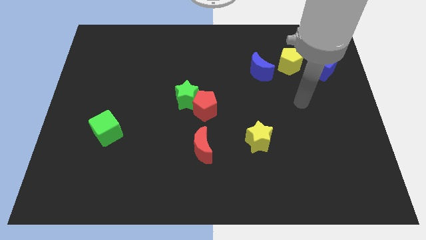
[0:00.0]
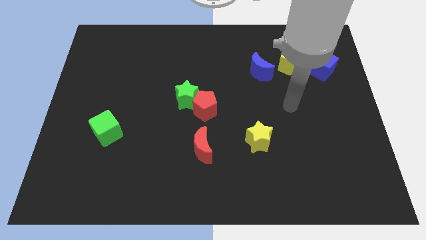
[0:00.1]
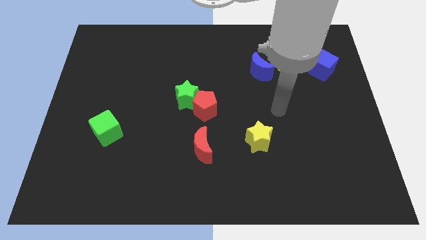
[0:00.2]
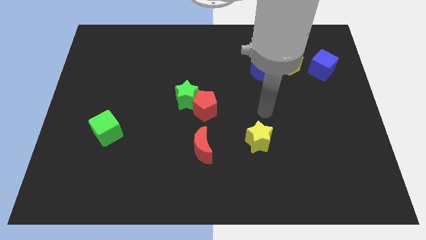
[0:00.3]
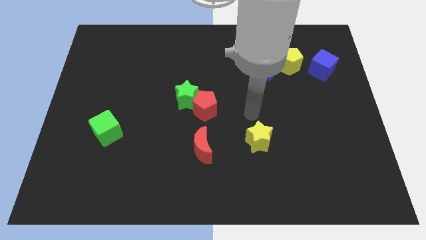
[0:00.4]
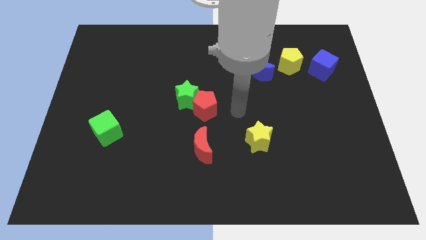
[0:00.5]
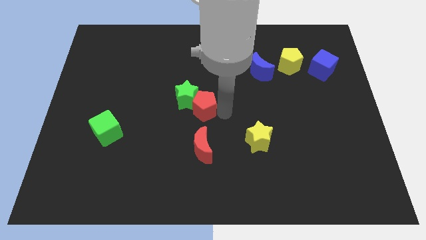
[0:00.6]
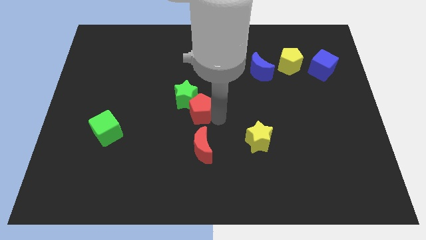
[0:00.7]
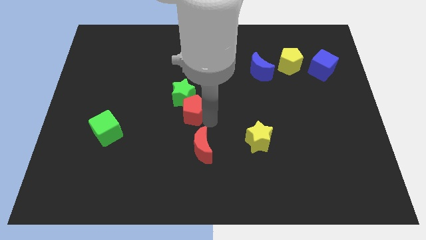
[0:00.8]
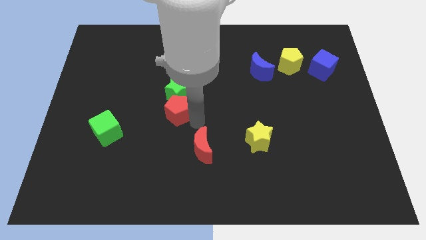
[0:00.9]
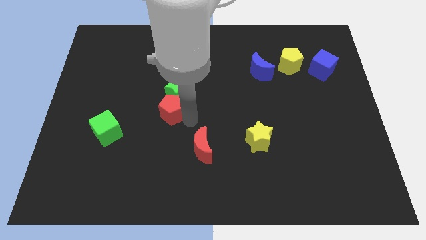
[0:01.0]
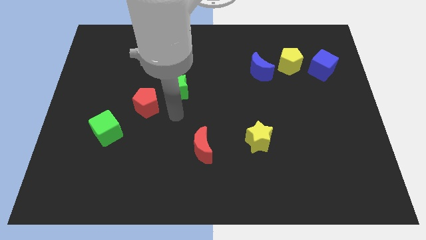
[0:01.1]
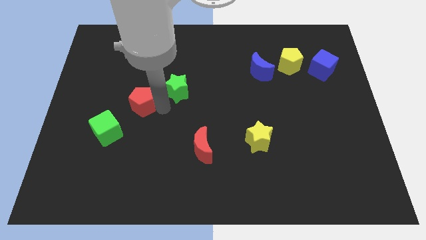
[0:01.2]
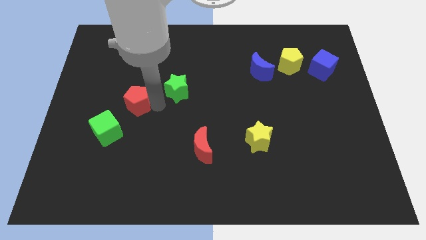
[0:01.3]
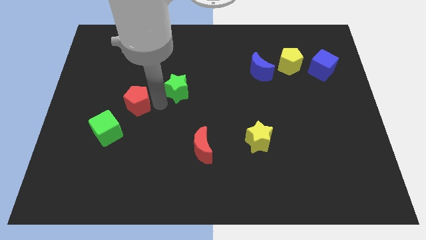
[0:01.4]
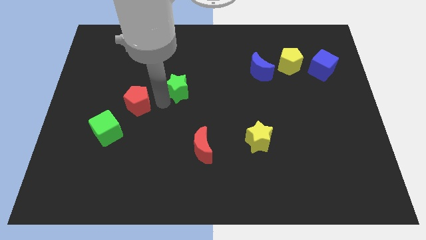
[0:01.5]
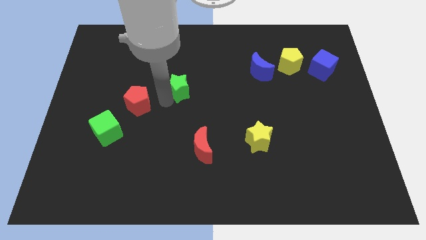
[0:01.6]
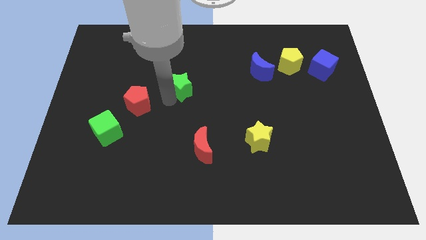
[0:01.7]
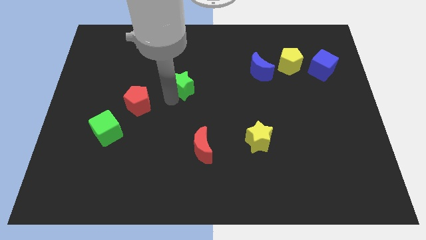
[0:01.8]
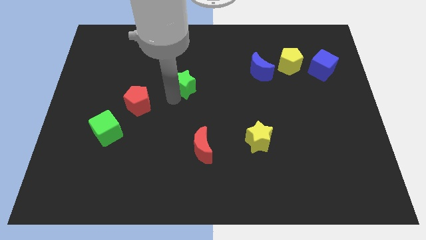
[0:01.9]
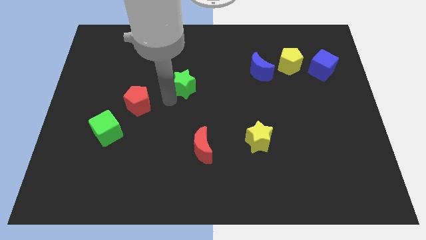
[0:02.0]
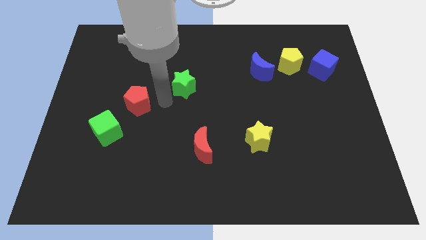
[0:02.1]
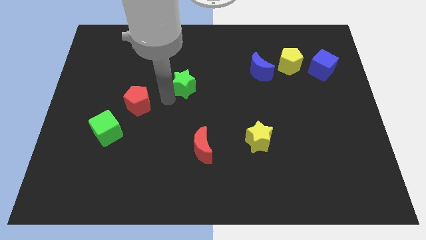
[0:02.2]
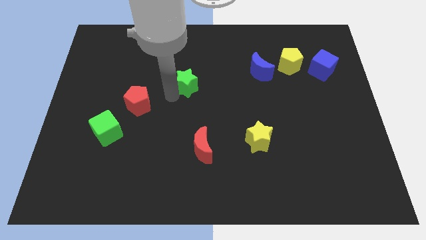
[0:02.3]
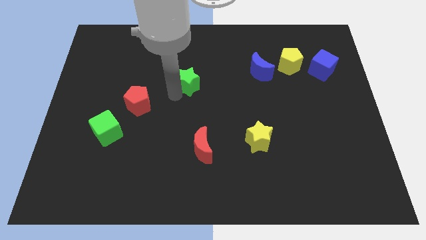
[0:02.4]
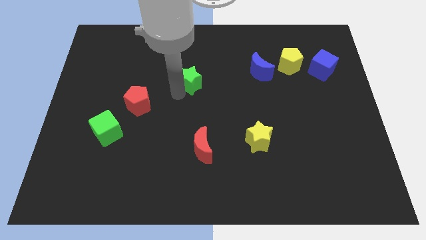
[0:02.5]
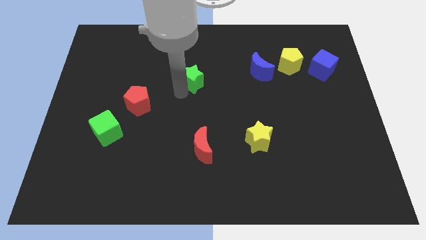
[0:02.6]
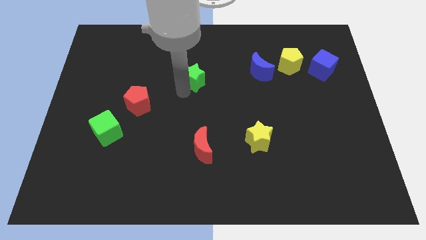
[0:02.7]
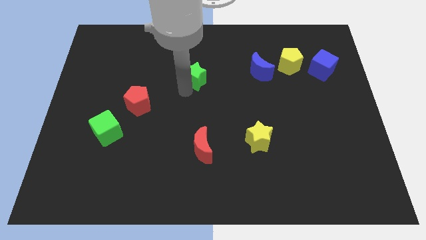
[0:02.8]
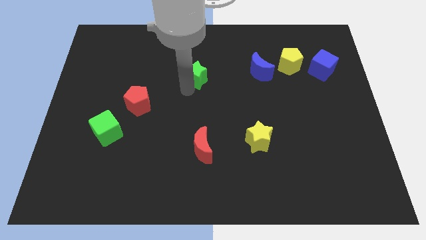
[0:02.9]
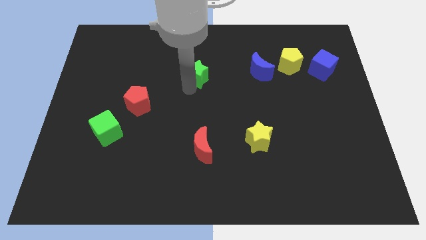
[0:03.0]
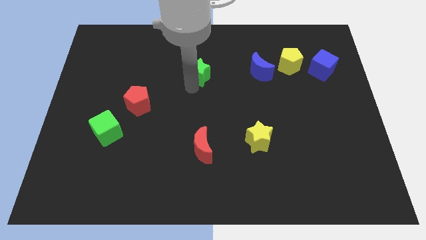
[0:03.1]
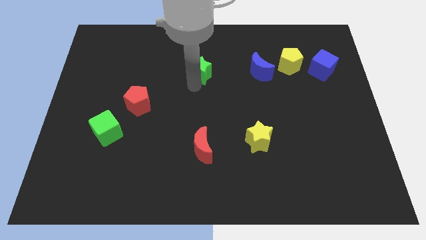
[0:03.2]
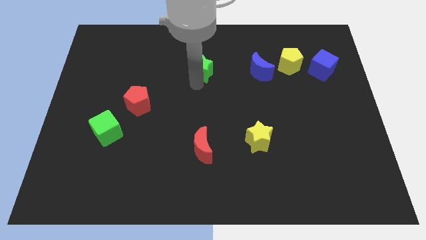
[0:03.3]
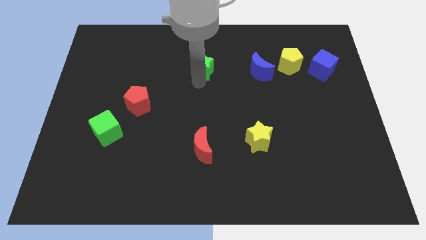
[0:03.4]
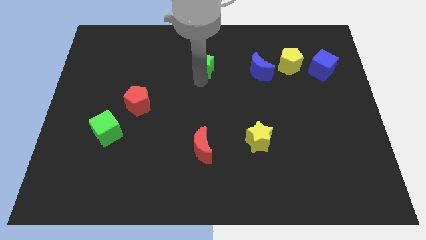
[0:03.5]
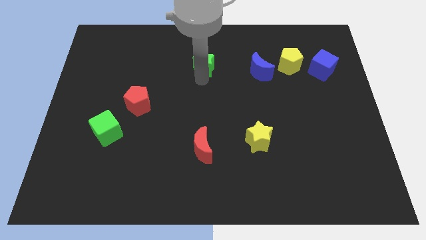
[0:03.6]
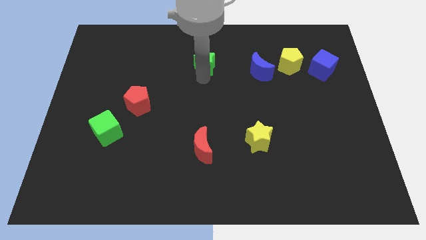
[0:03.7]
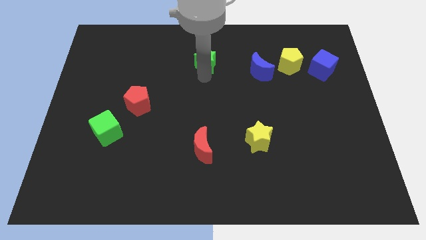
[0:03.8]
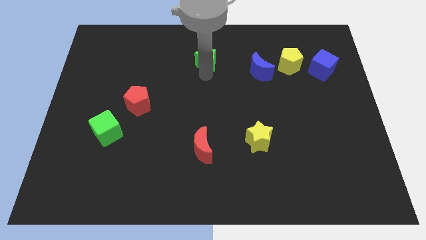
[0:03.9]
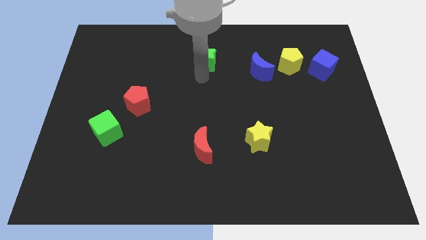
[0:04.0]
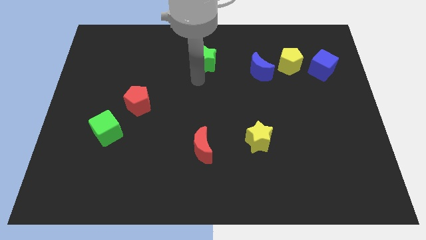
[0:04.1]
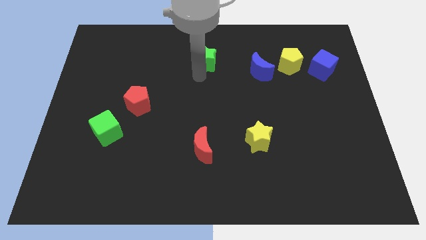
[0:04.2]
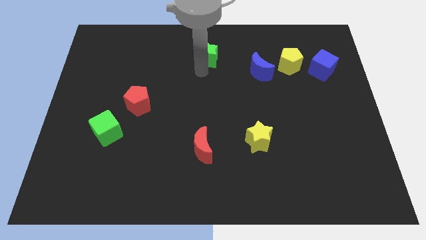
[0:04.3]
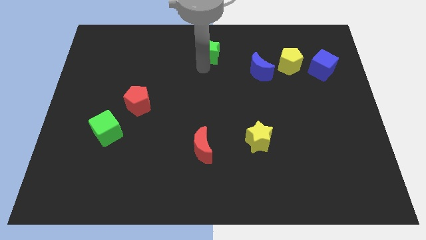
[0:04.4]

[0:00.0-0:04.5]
move the green star to the top side

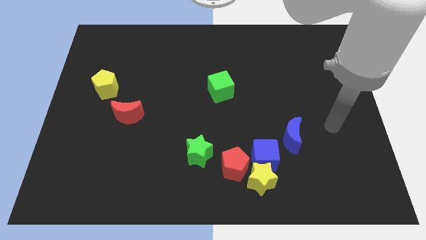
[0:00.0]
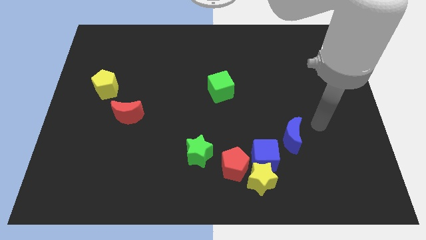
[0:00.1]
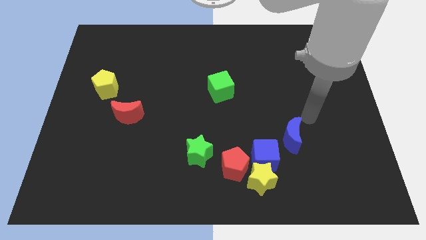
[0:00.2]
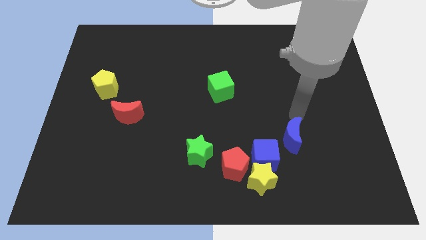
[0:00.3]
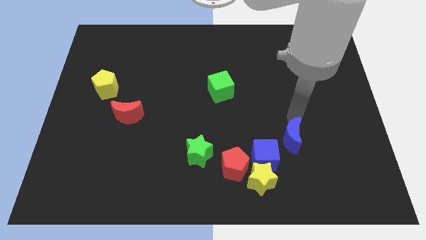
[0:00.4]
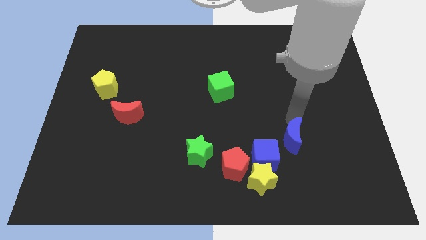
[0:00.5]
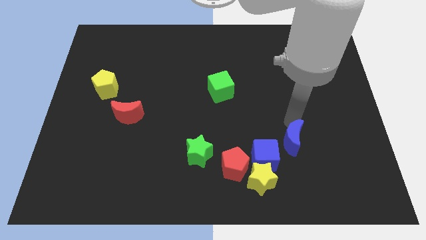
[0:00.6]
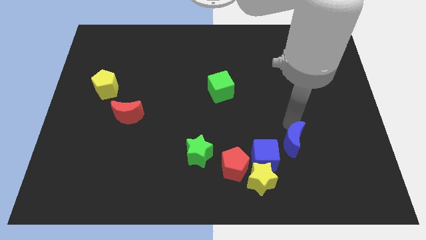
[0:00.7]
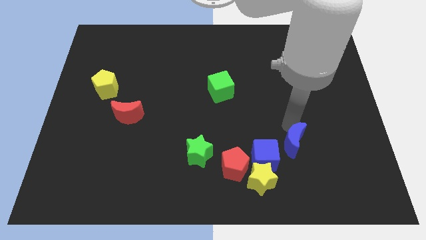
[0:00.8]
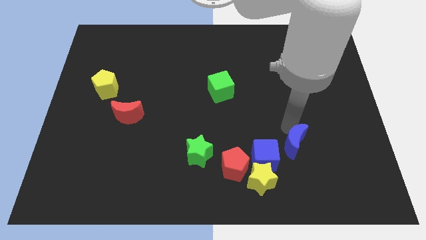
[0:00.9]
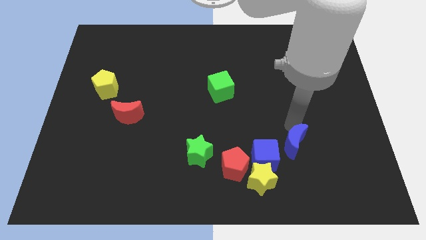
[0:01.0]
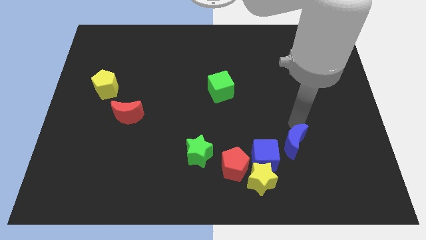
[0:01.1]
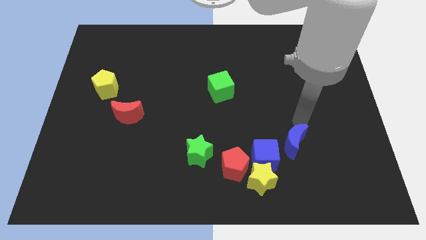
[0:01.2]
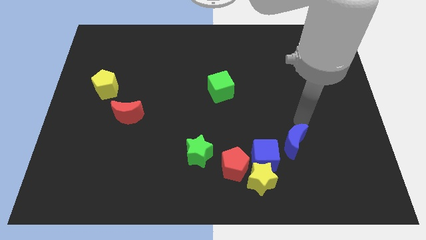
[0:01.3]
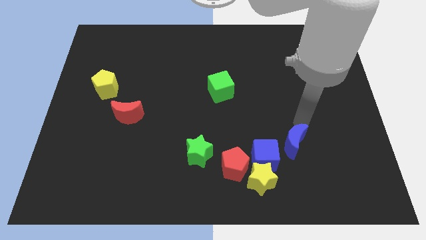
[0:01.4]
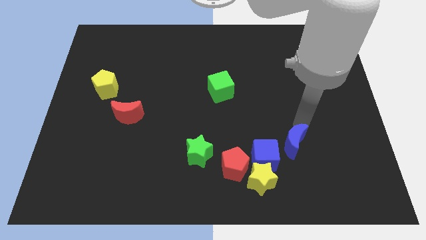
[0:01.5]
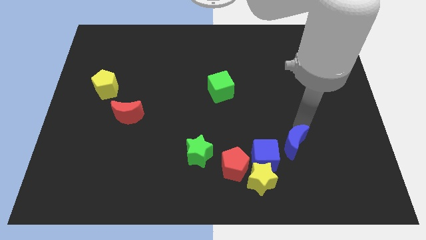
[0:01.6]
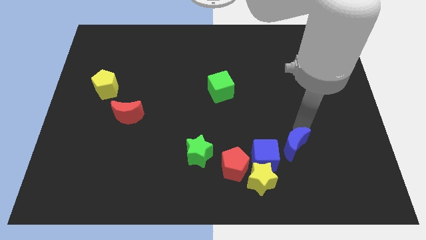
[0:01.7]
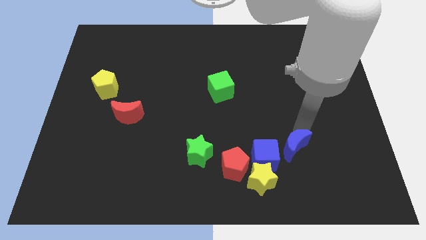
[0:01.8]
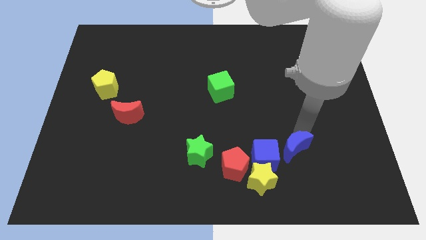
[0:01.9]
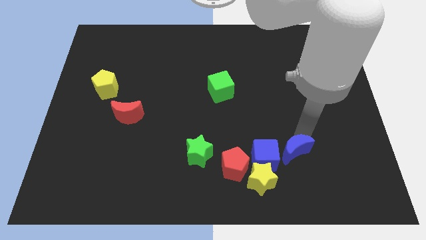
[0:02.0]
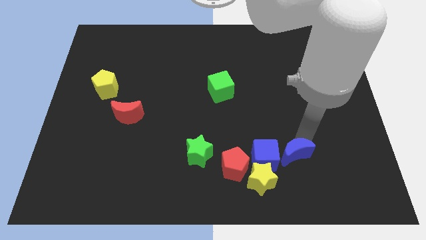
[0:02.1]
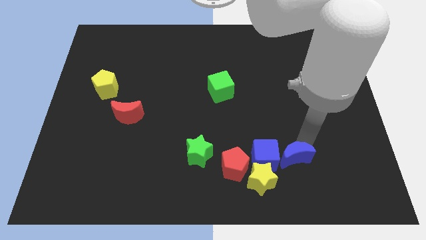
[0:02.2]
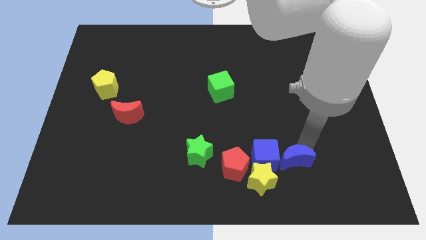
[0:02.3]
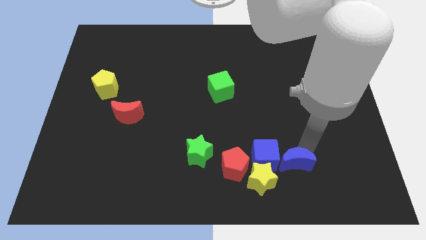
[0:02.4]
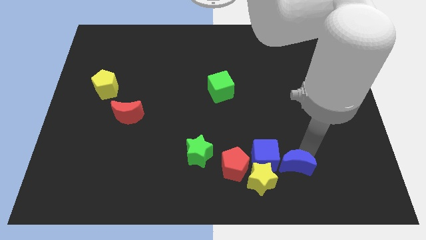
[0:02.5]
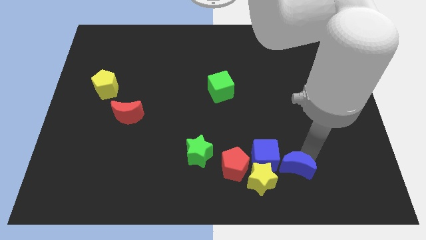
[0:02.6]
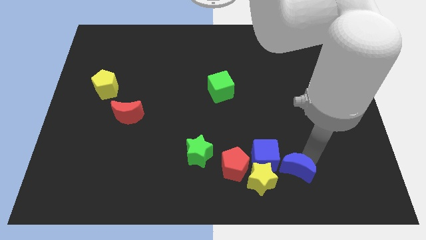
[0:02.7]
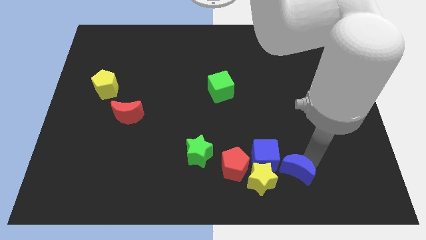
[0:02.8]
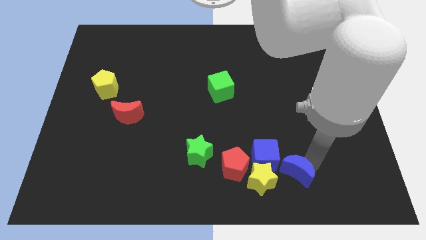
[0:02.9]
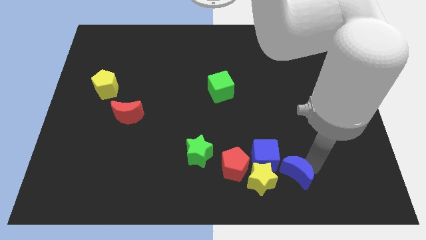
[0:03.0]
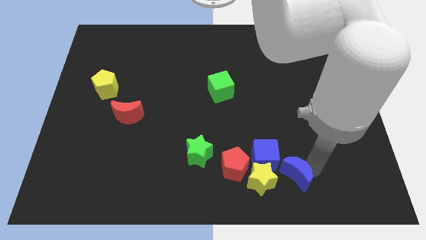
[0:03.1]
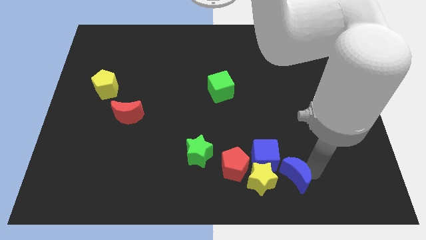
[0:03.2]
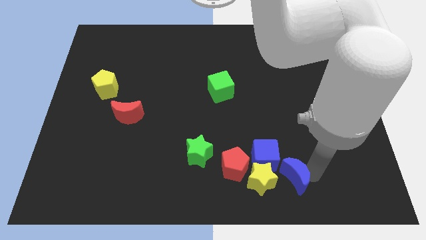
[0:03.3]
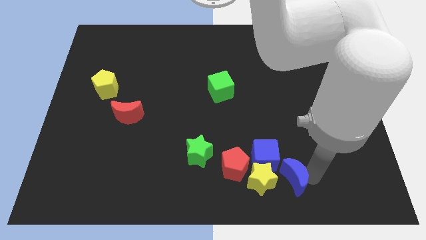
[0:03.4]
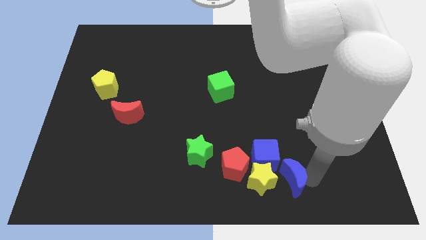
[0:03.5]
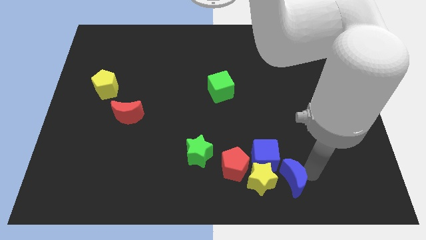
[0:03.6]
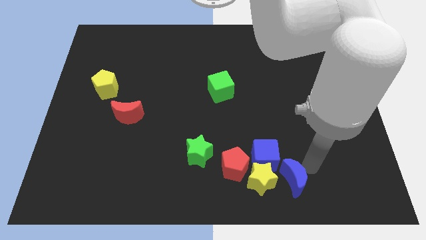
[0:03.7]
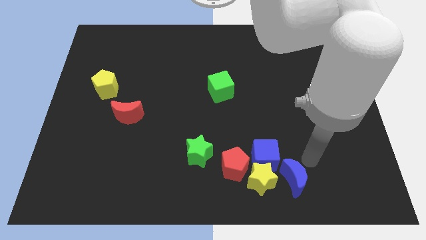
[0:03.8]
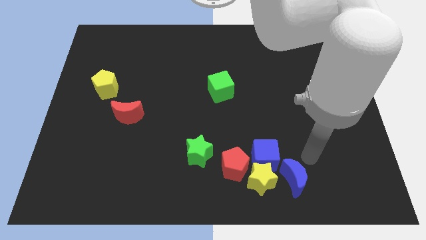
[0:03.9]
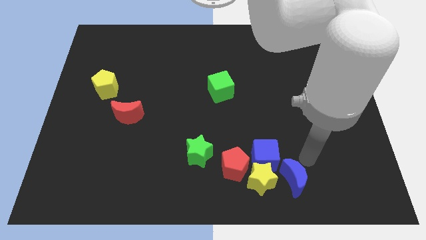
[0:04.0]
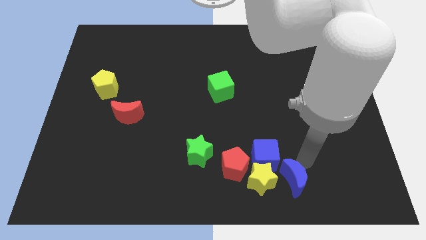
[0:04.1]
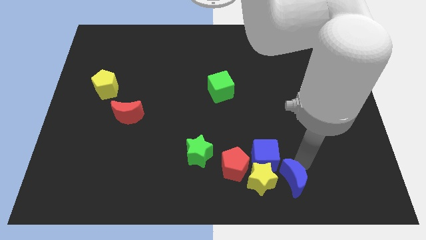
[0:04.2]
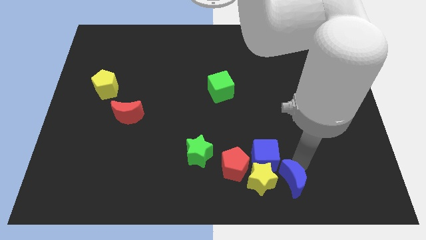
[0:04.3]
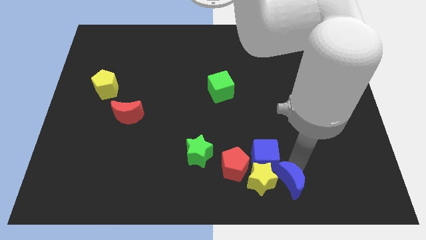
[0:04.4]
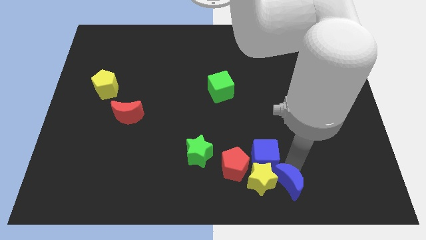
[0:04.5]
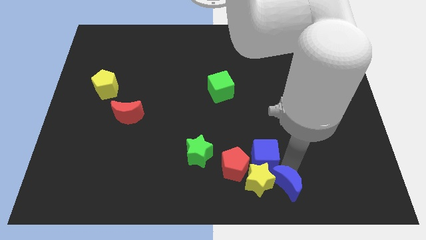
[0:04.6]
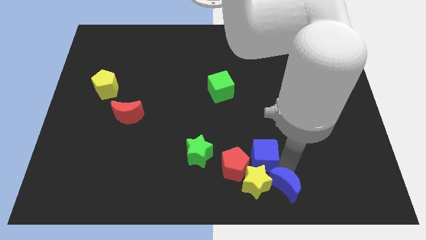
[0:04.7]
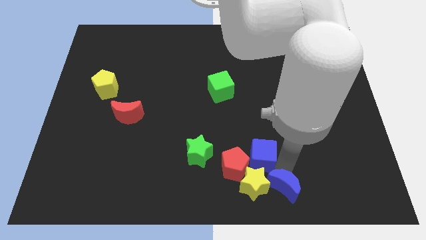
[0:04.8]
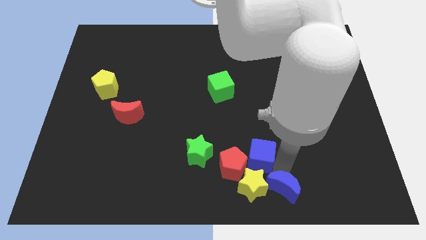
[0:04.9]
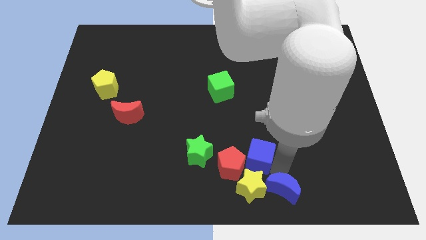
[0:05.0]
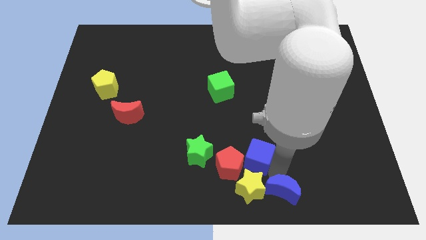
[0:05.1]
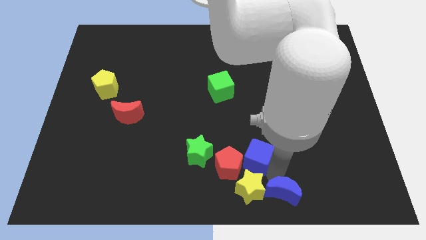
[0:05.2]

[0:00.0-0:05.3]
push the blue moon to the bottom side
